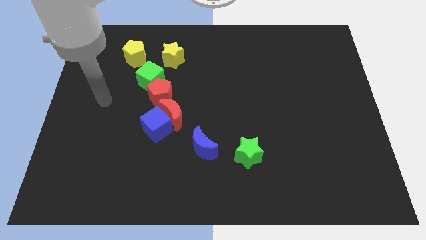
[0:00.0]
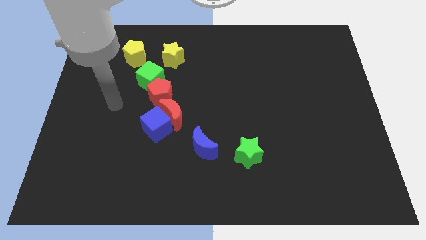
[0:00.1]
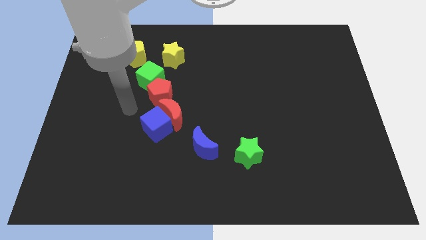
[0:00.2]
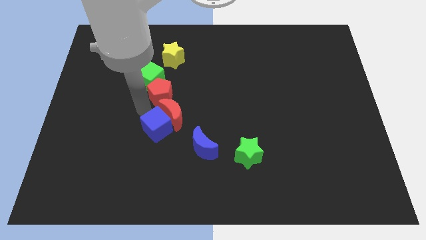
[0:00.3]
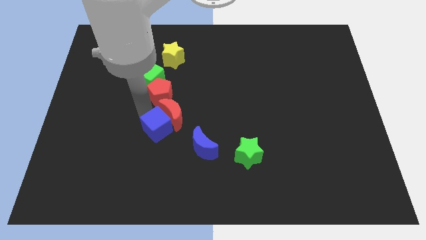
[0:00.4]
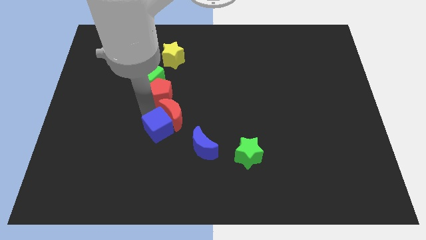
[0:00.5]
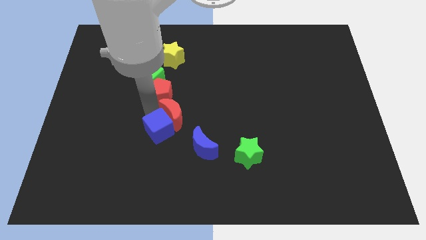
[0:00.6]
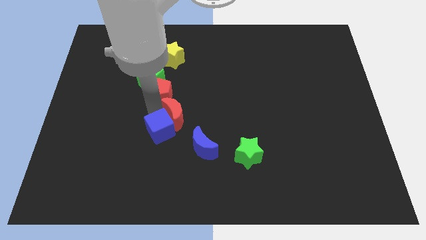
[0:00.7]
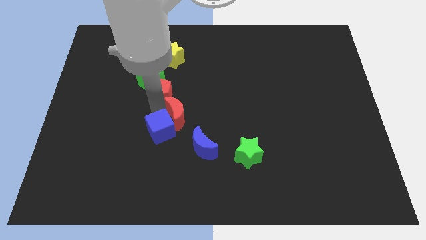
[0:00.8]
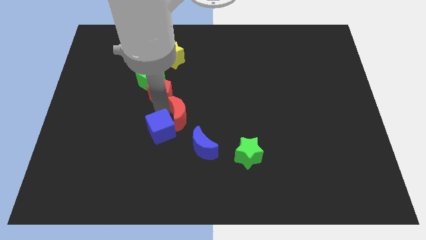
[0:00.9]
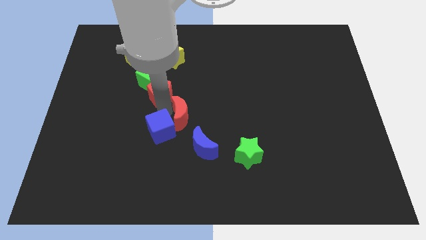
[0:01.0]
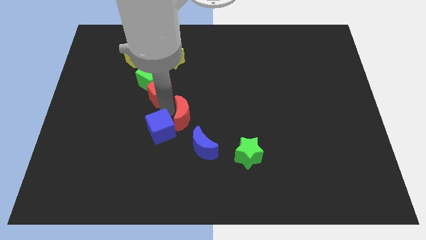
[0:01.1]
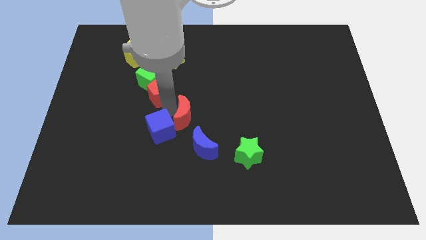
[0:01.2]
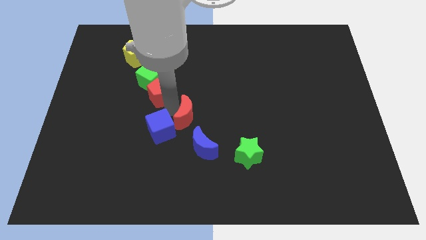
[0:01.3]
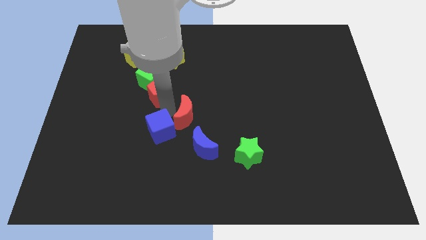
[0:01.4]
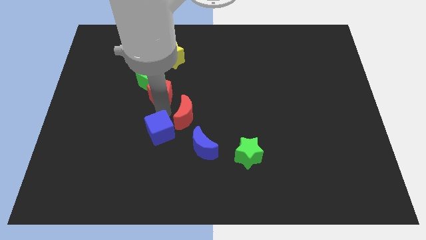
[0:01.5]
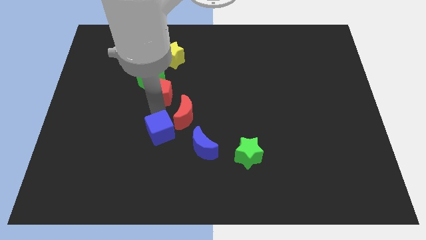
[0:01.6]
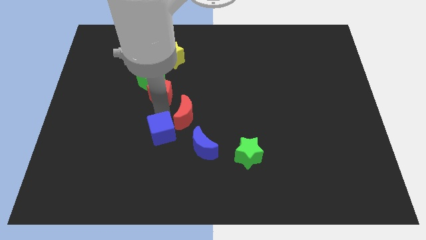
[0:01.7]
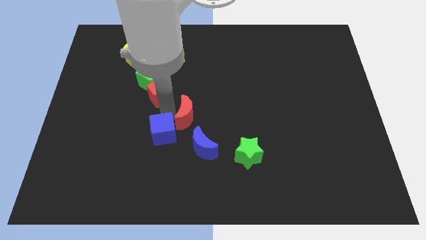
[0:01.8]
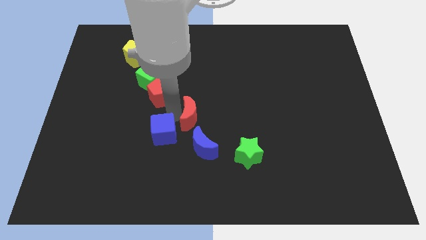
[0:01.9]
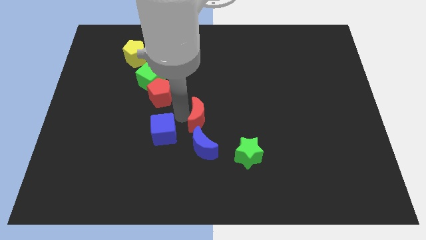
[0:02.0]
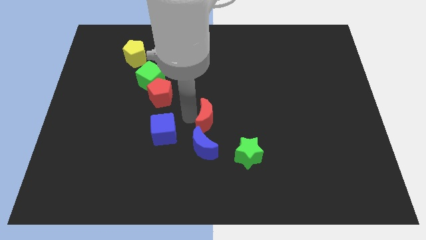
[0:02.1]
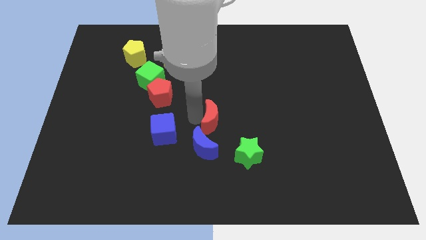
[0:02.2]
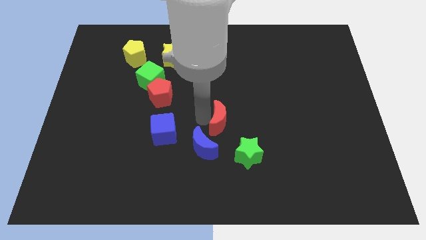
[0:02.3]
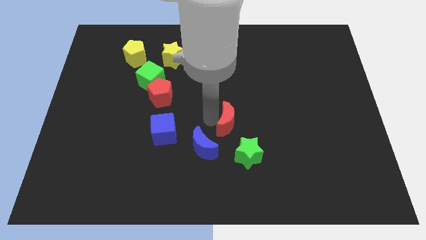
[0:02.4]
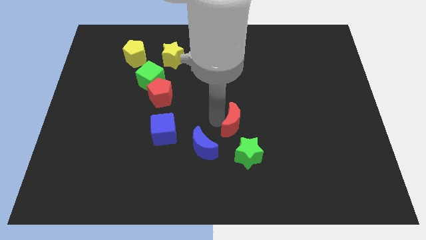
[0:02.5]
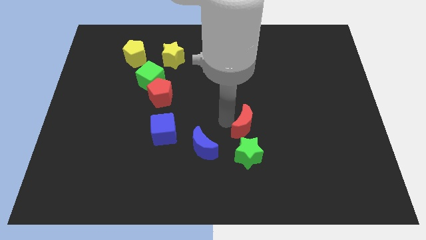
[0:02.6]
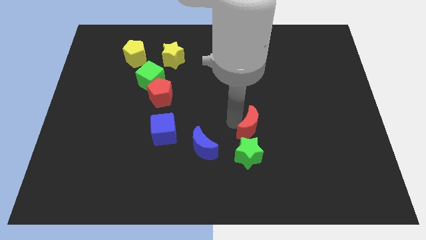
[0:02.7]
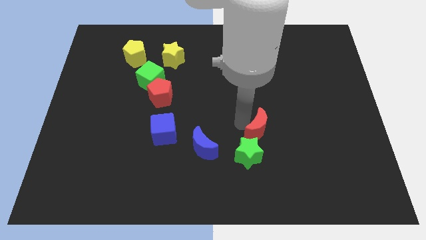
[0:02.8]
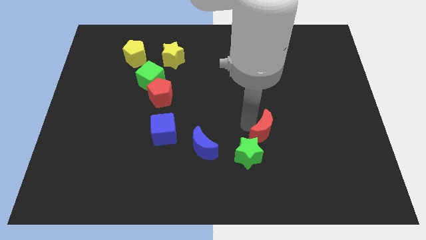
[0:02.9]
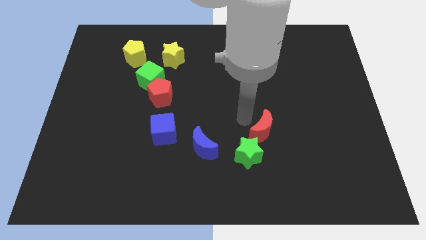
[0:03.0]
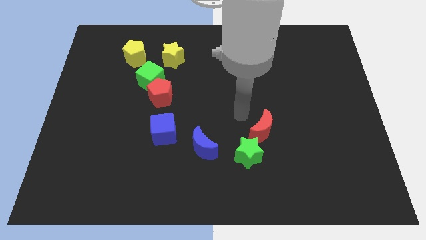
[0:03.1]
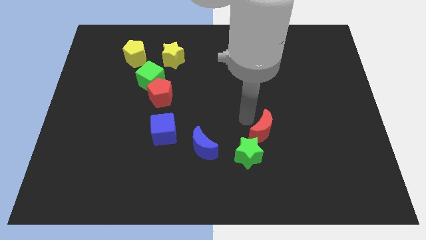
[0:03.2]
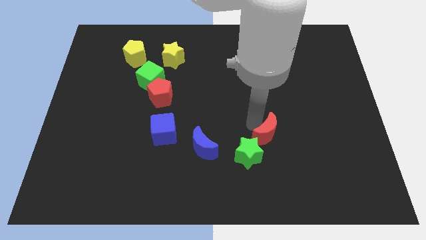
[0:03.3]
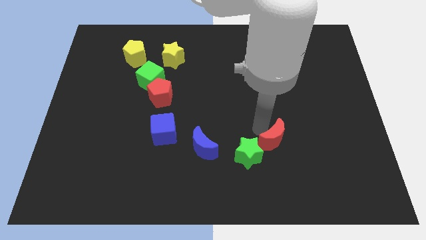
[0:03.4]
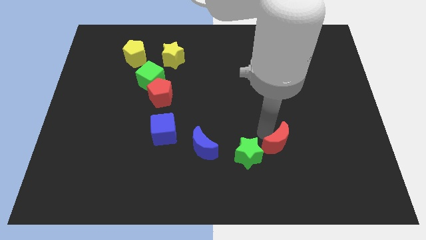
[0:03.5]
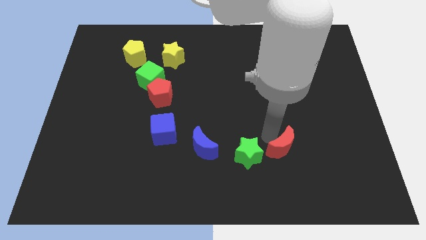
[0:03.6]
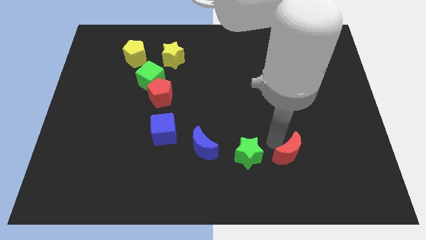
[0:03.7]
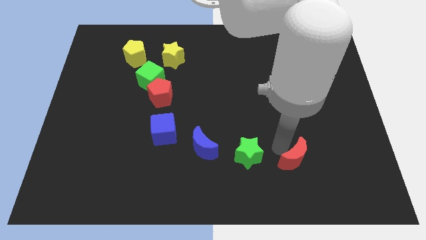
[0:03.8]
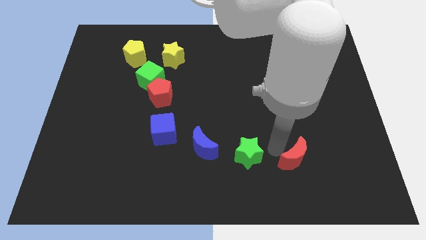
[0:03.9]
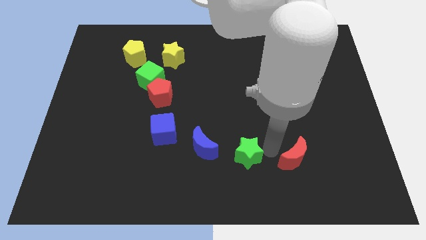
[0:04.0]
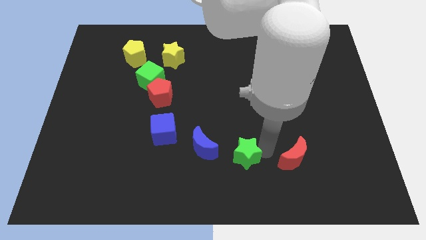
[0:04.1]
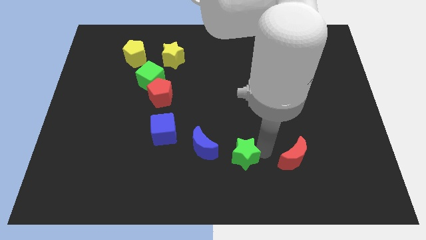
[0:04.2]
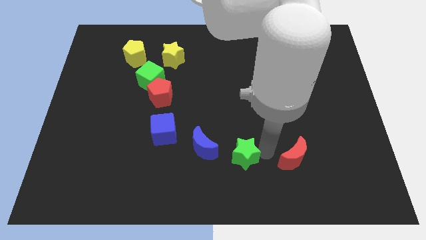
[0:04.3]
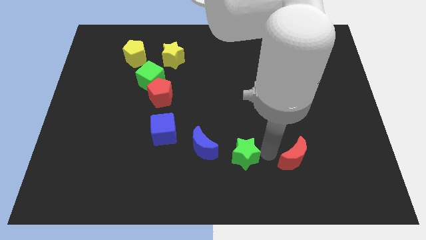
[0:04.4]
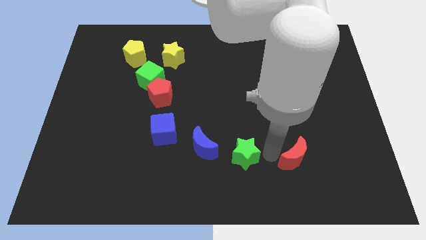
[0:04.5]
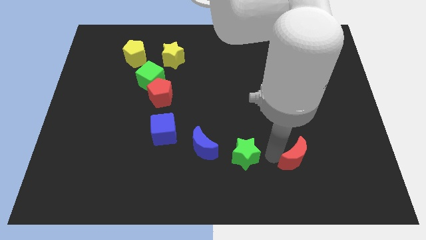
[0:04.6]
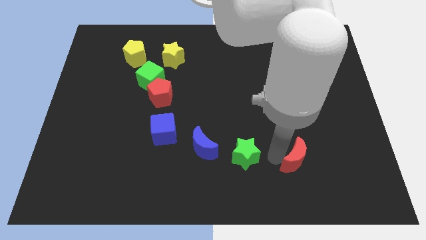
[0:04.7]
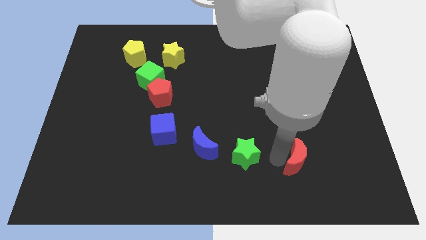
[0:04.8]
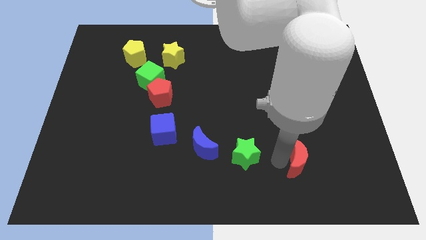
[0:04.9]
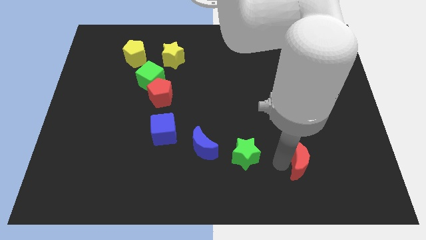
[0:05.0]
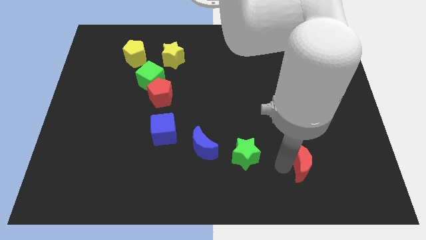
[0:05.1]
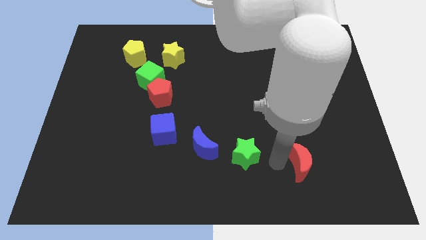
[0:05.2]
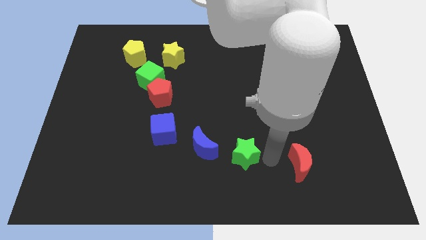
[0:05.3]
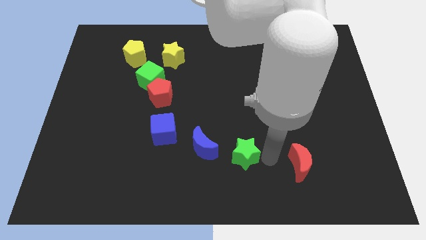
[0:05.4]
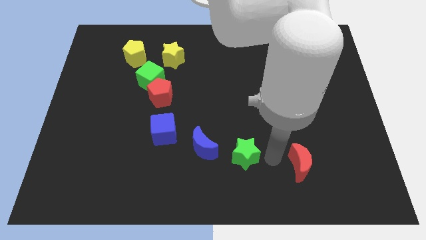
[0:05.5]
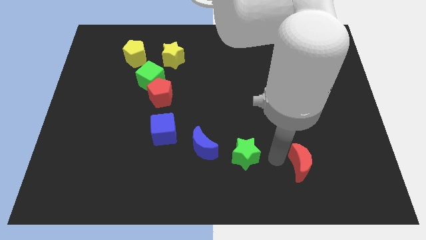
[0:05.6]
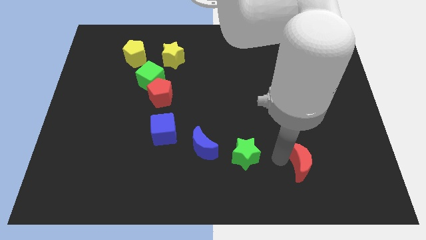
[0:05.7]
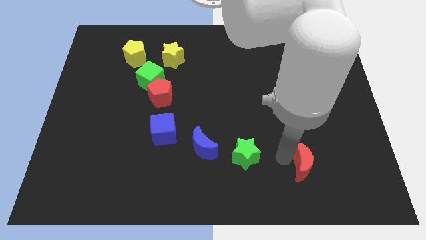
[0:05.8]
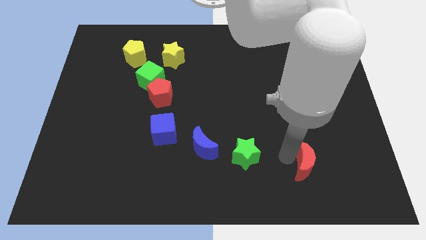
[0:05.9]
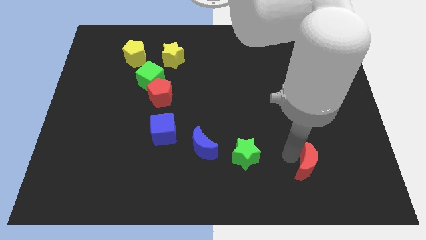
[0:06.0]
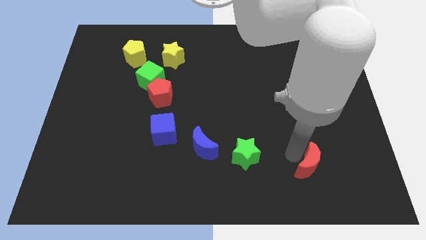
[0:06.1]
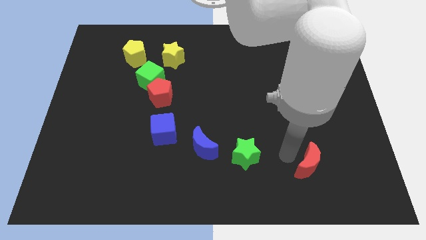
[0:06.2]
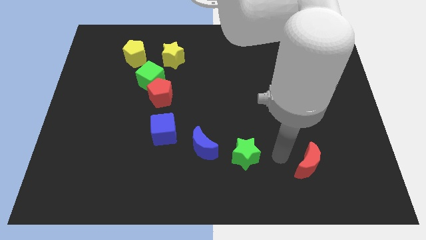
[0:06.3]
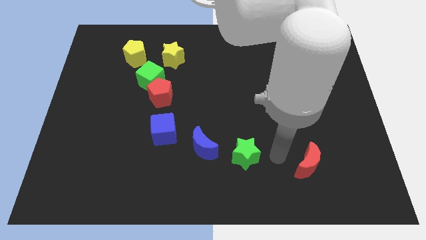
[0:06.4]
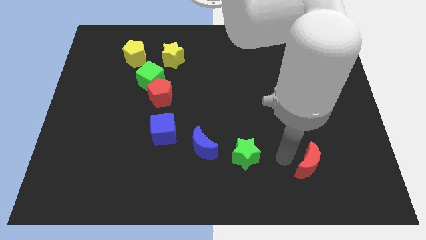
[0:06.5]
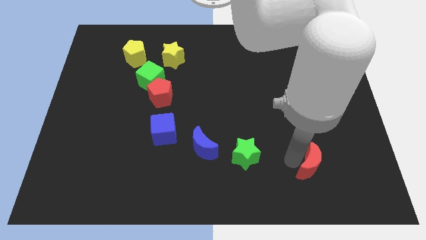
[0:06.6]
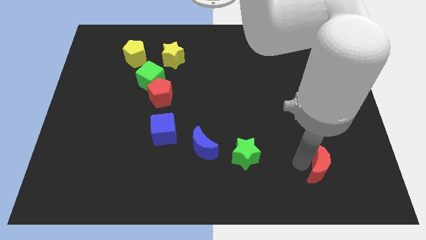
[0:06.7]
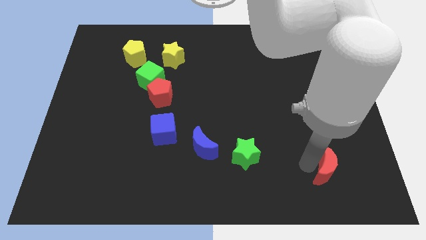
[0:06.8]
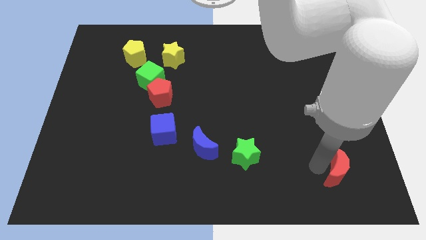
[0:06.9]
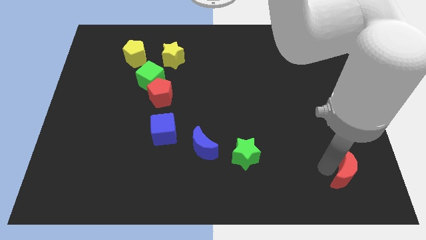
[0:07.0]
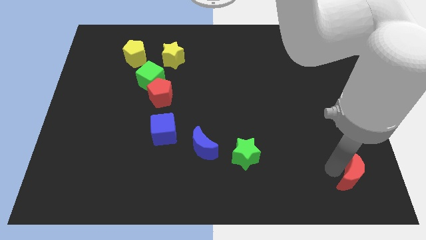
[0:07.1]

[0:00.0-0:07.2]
push the red moon to the bottom right corner

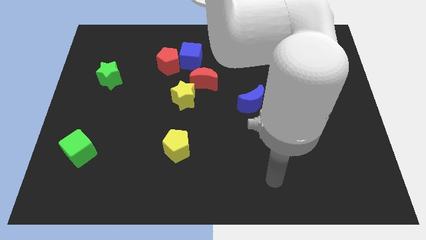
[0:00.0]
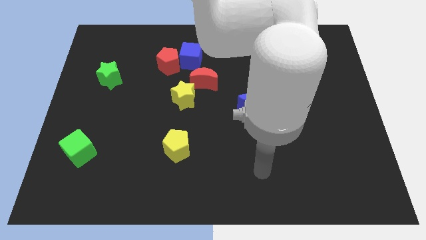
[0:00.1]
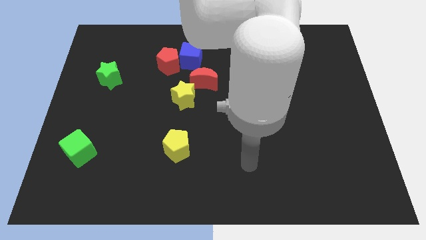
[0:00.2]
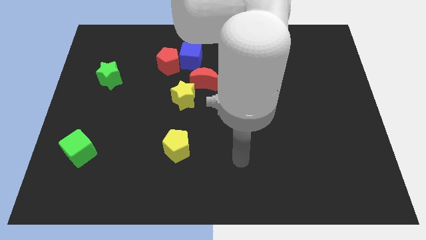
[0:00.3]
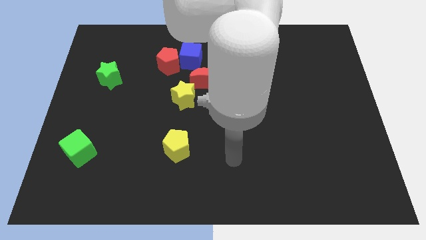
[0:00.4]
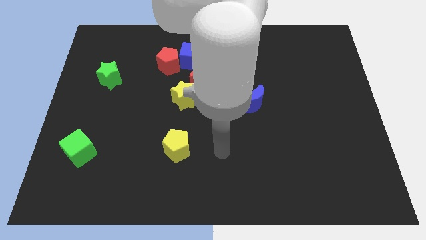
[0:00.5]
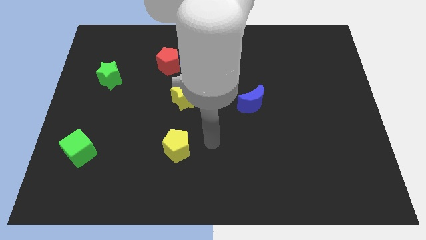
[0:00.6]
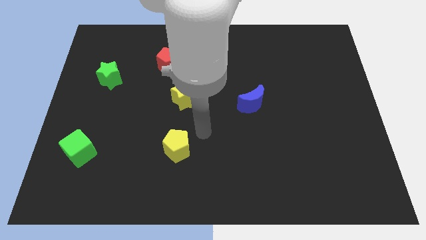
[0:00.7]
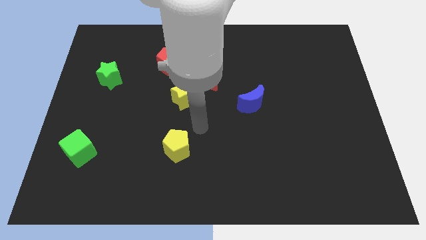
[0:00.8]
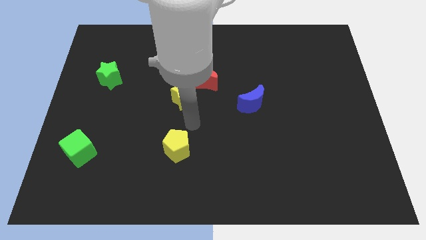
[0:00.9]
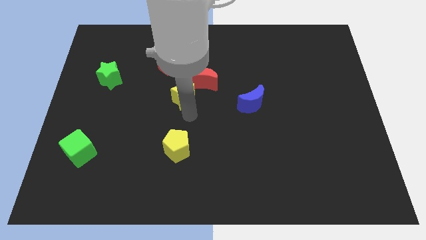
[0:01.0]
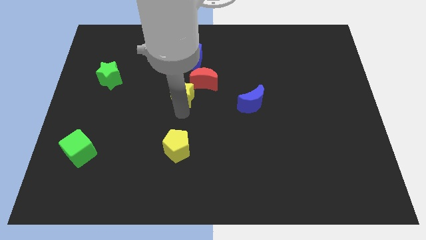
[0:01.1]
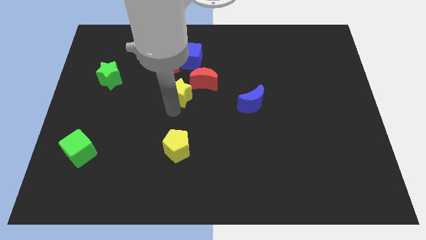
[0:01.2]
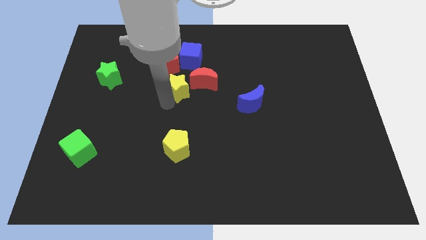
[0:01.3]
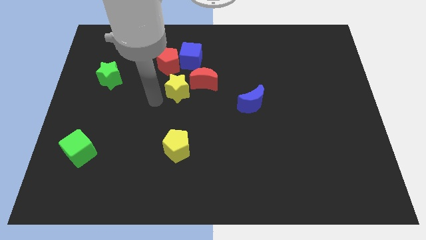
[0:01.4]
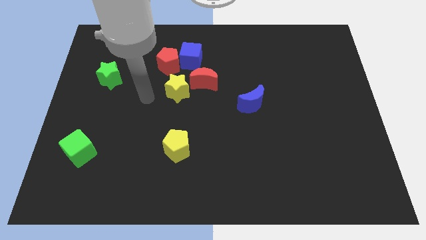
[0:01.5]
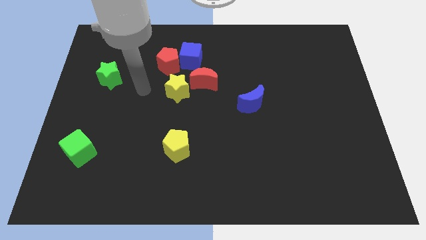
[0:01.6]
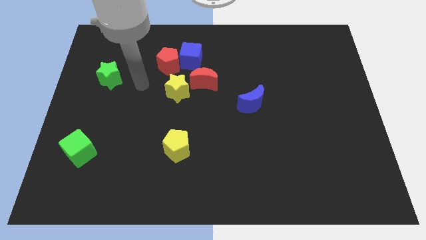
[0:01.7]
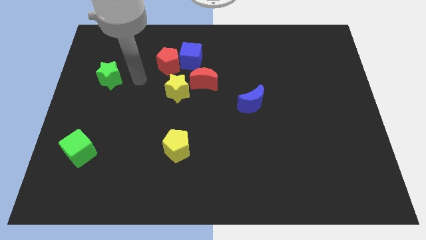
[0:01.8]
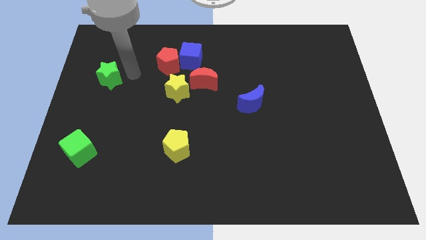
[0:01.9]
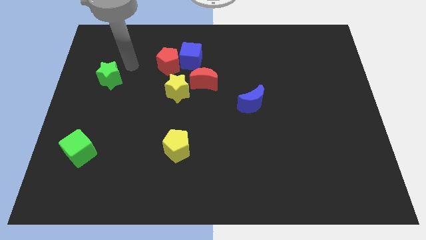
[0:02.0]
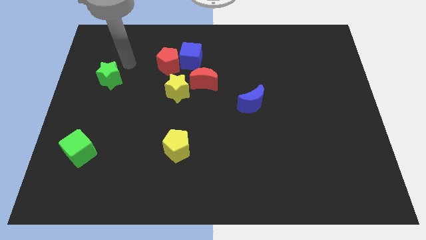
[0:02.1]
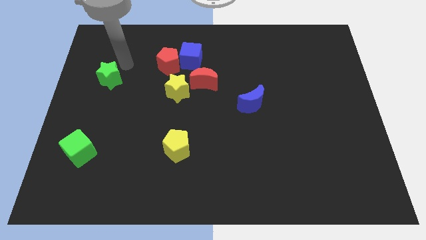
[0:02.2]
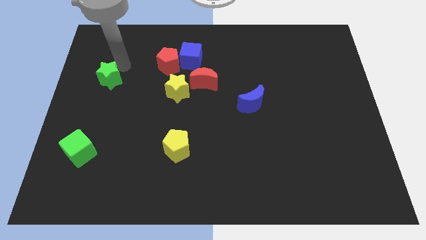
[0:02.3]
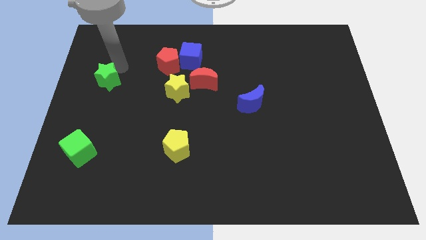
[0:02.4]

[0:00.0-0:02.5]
push the green star to the left side of the board
